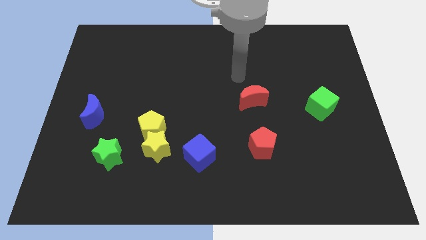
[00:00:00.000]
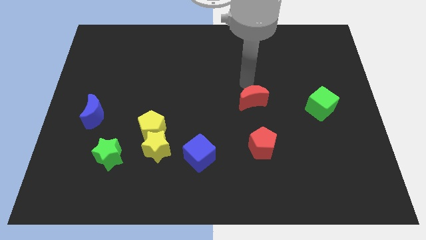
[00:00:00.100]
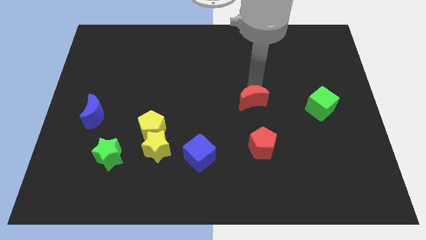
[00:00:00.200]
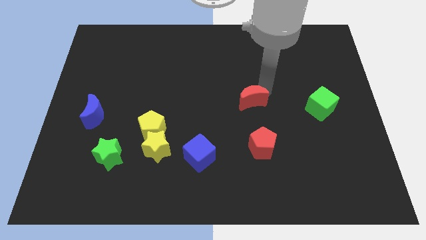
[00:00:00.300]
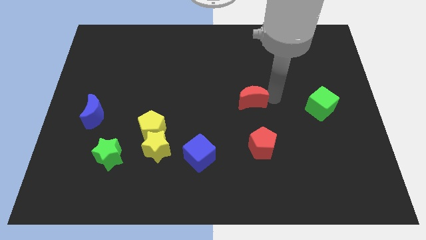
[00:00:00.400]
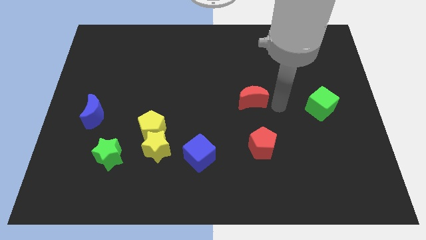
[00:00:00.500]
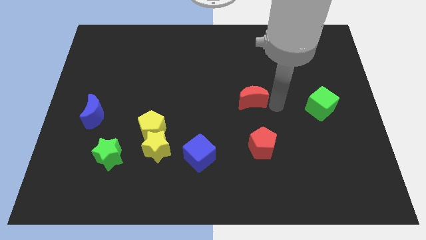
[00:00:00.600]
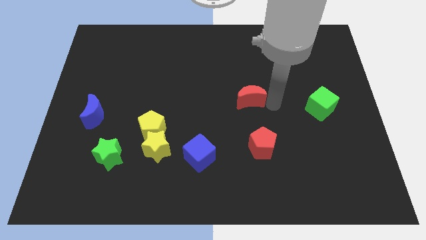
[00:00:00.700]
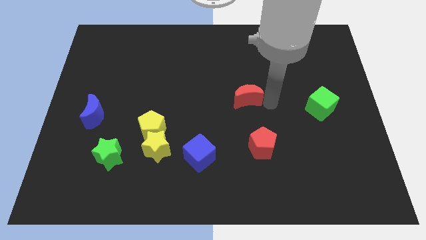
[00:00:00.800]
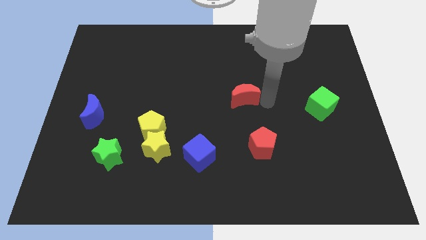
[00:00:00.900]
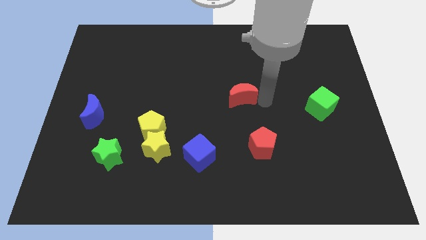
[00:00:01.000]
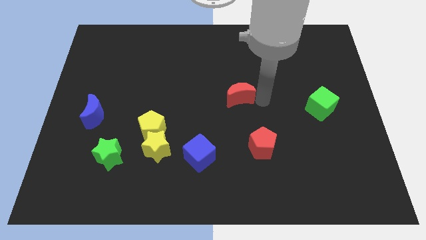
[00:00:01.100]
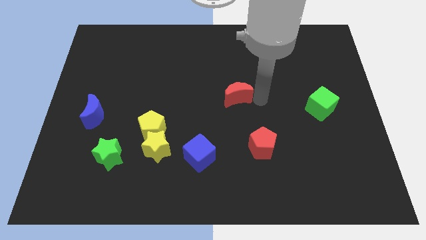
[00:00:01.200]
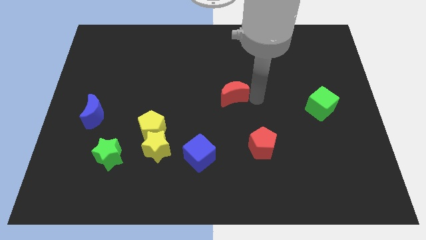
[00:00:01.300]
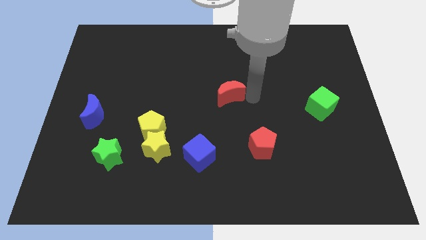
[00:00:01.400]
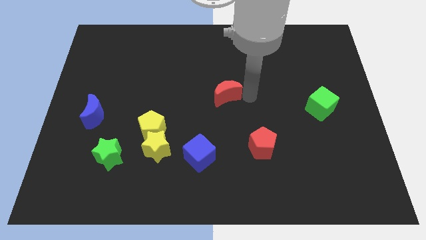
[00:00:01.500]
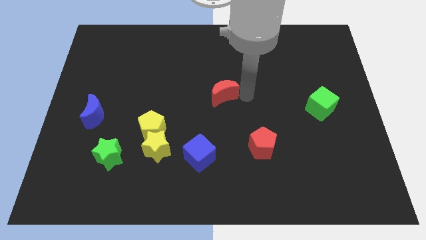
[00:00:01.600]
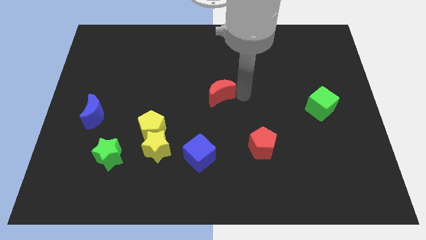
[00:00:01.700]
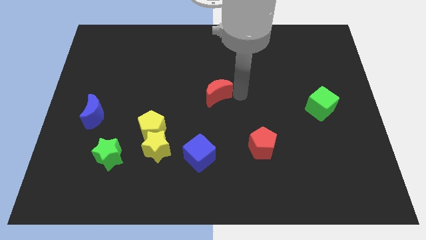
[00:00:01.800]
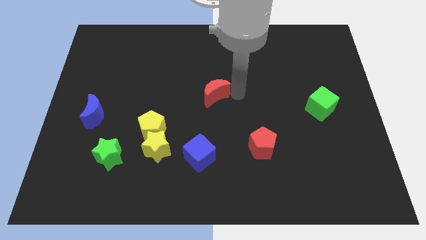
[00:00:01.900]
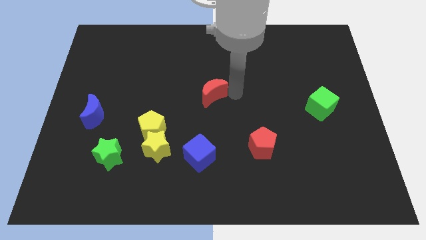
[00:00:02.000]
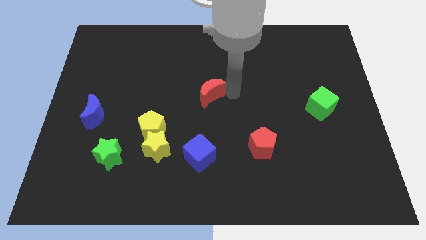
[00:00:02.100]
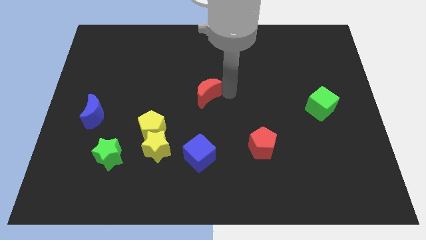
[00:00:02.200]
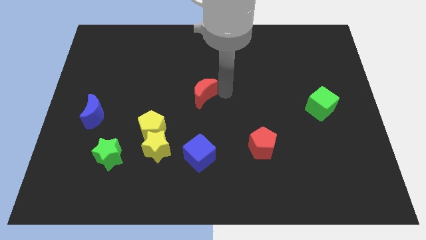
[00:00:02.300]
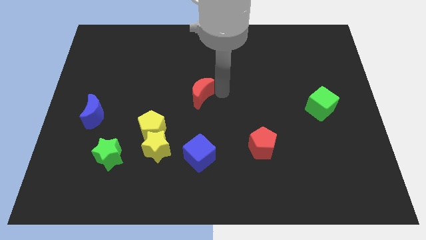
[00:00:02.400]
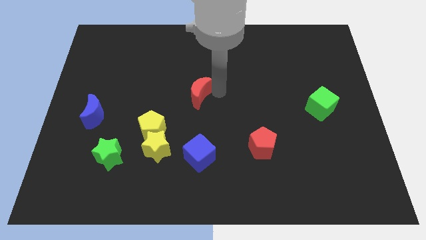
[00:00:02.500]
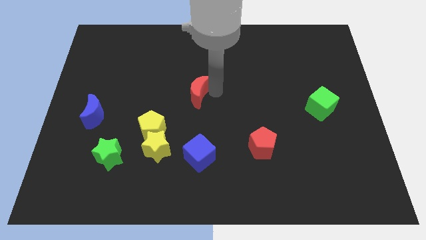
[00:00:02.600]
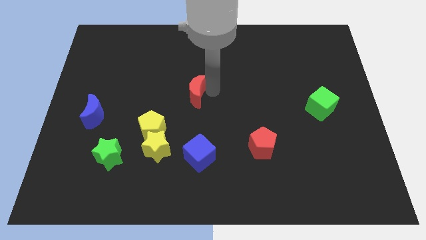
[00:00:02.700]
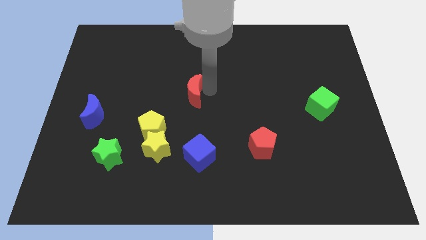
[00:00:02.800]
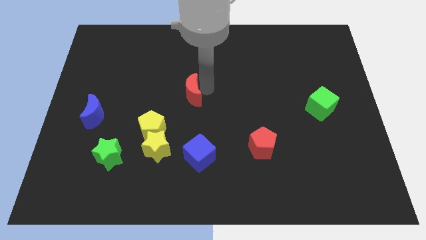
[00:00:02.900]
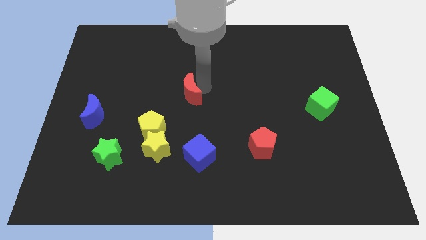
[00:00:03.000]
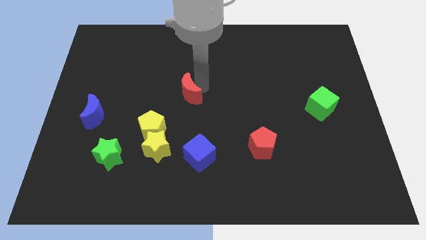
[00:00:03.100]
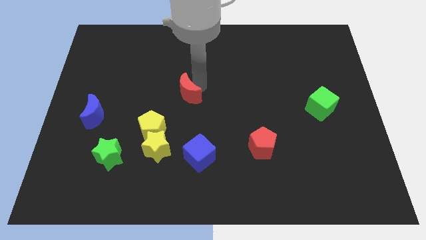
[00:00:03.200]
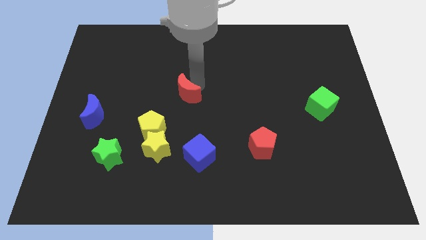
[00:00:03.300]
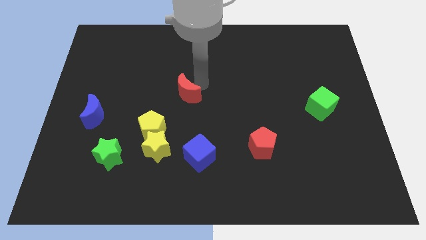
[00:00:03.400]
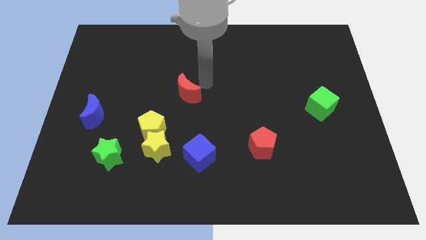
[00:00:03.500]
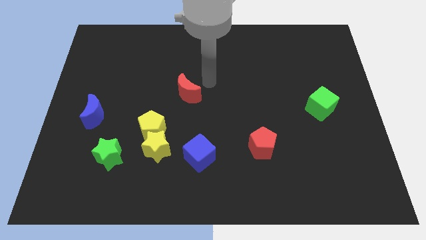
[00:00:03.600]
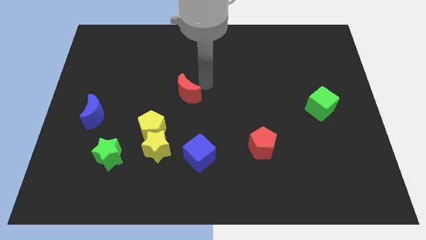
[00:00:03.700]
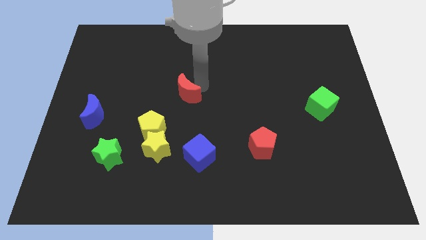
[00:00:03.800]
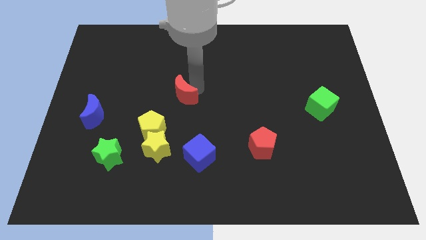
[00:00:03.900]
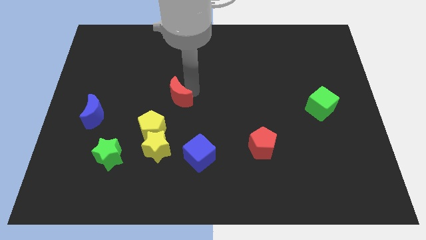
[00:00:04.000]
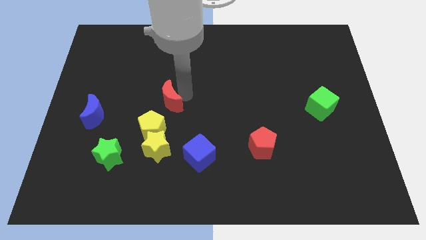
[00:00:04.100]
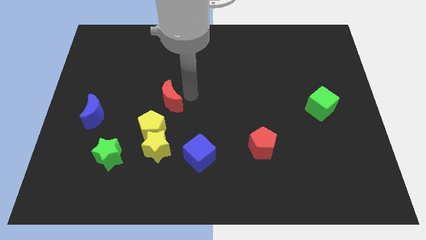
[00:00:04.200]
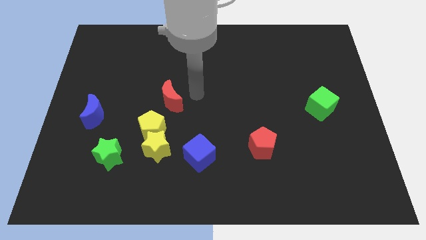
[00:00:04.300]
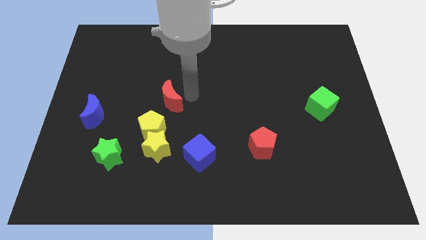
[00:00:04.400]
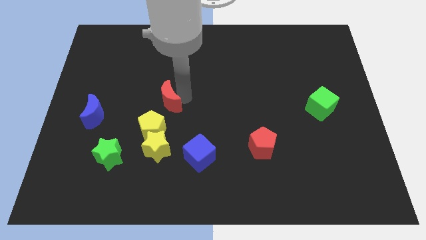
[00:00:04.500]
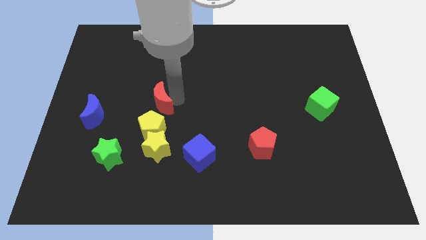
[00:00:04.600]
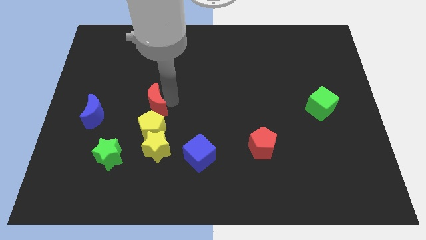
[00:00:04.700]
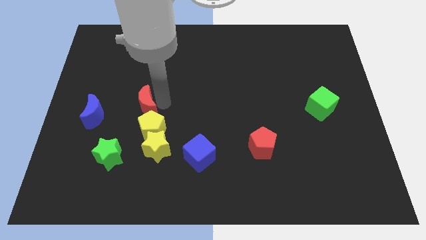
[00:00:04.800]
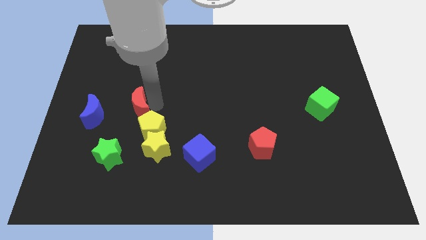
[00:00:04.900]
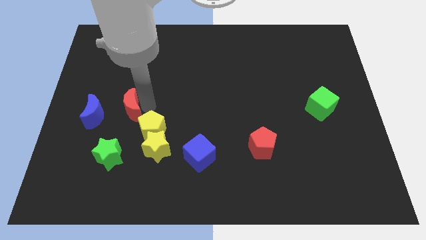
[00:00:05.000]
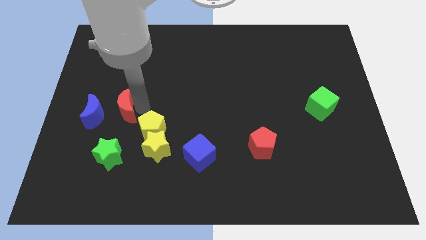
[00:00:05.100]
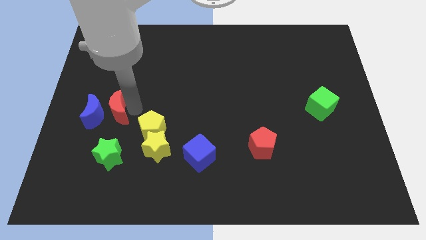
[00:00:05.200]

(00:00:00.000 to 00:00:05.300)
move the red moon towards the blue moon
